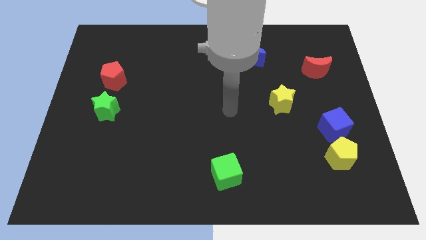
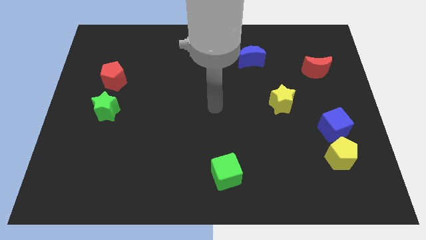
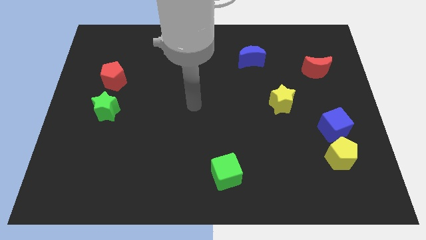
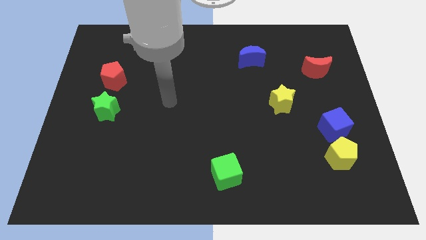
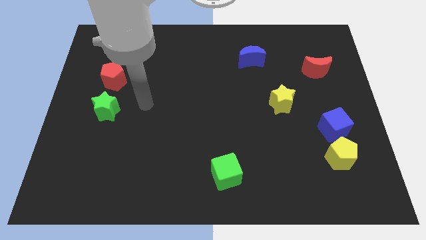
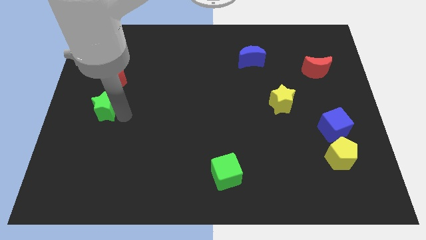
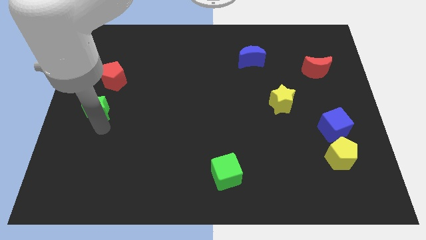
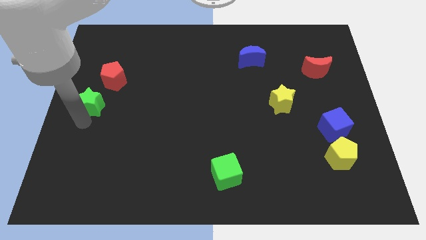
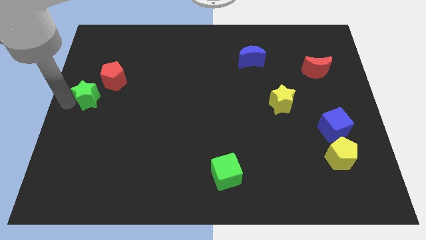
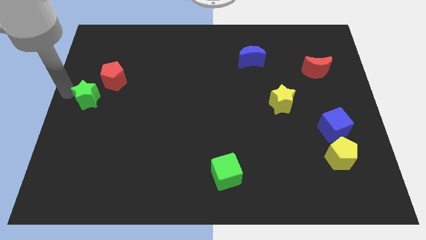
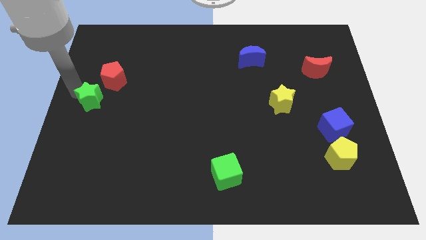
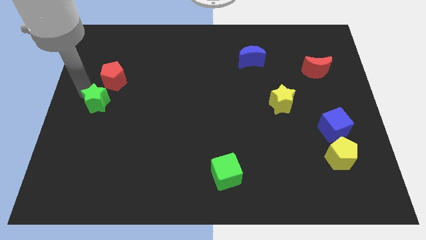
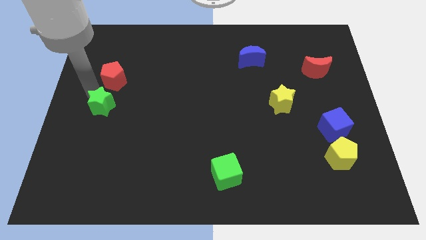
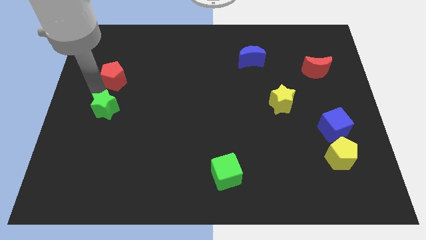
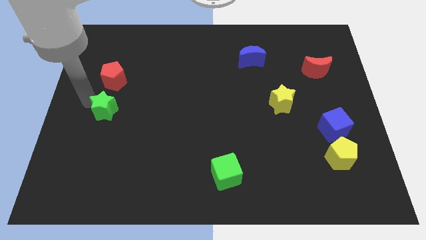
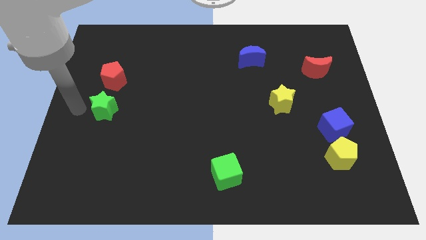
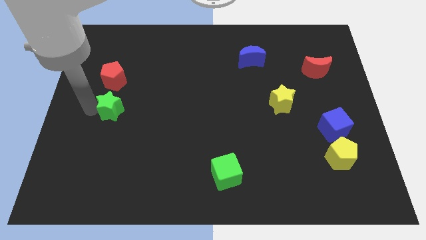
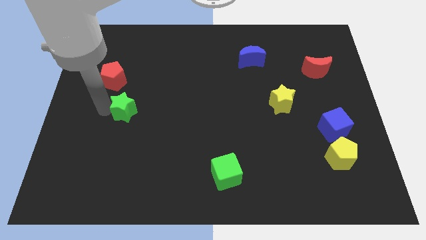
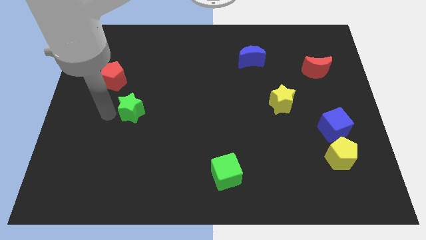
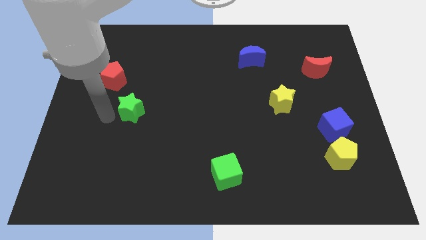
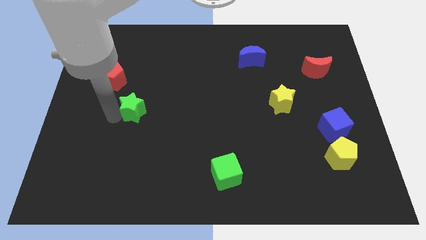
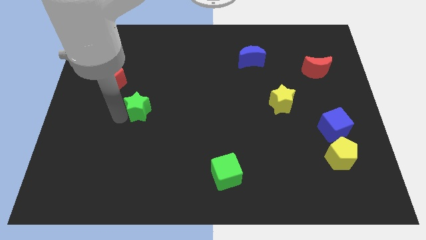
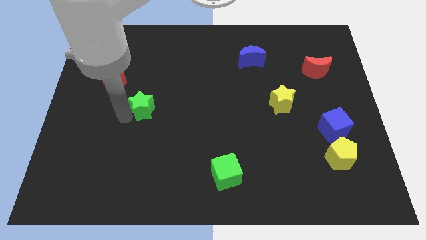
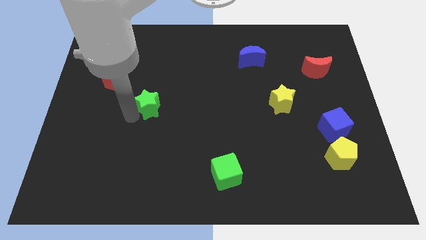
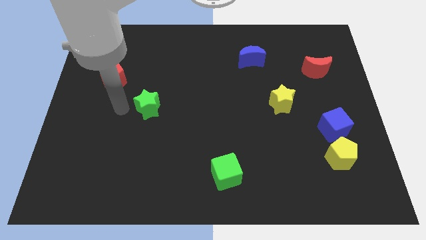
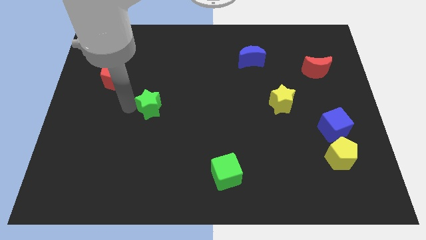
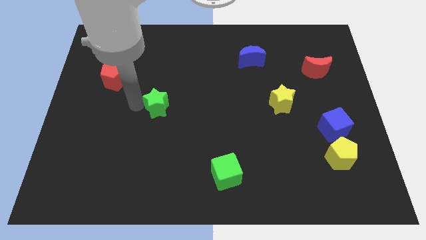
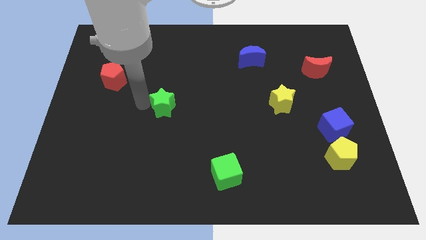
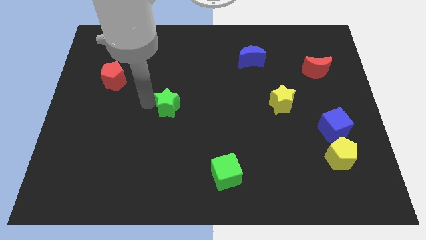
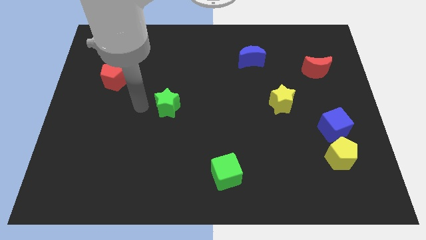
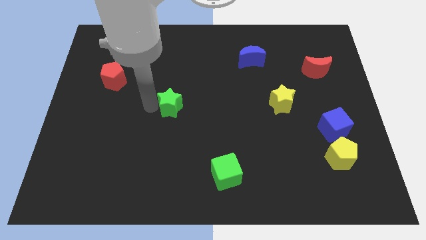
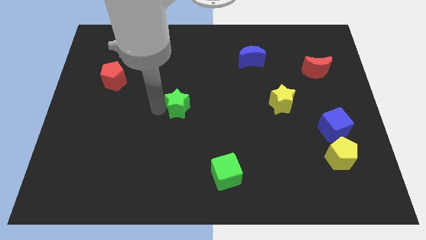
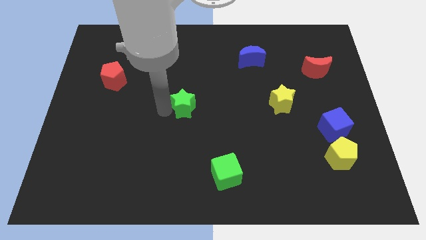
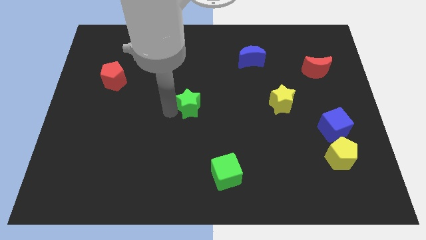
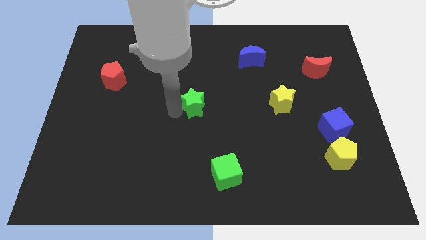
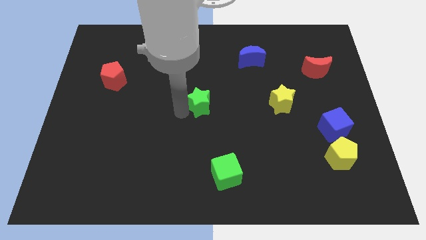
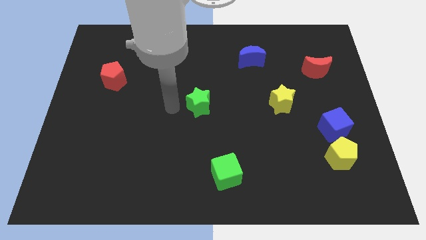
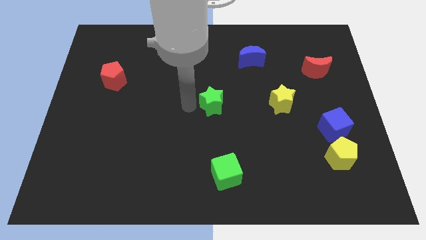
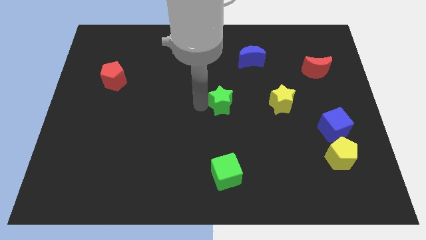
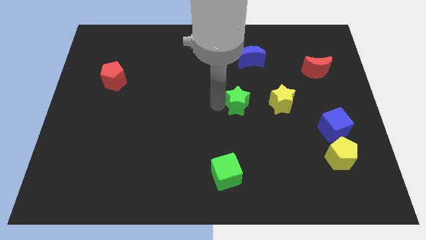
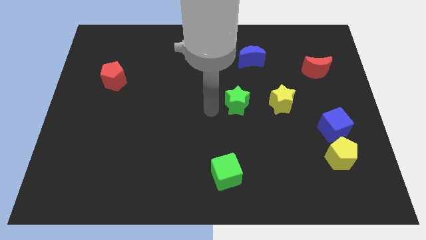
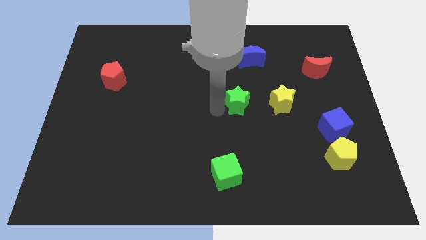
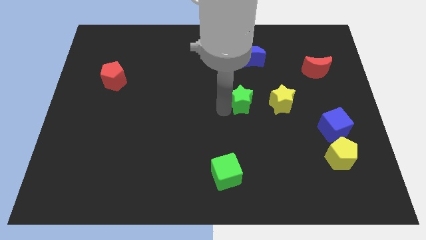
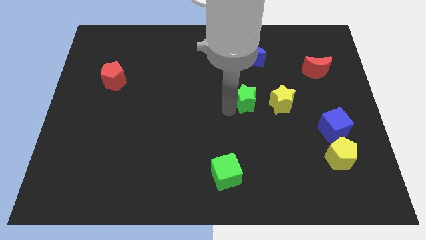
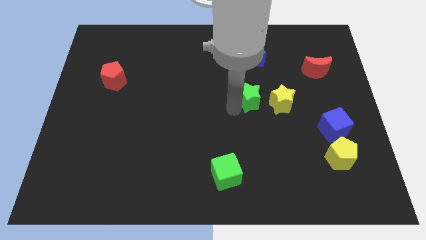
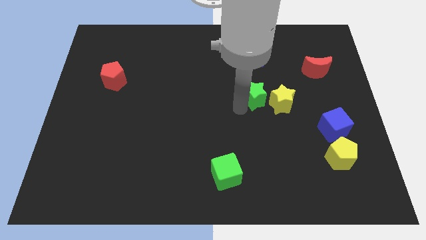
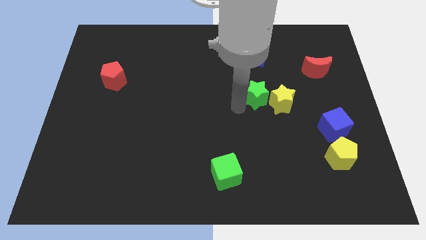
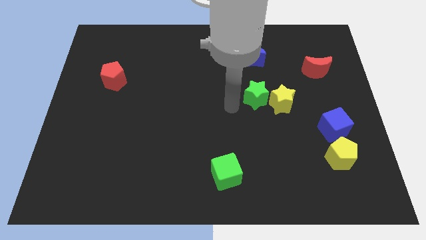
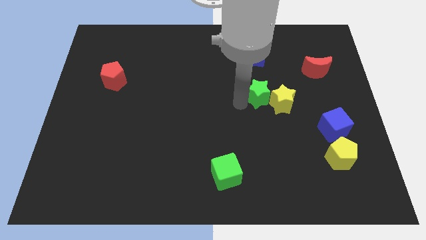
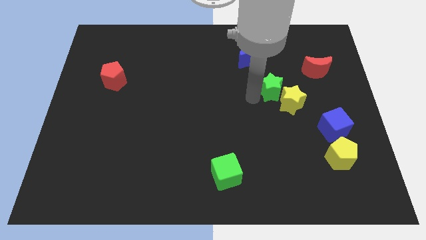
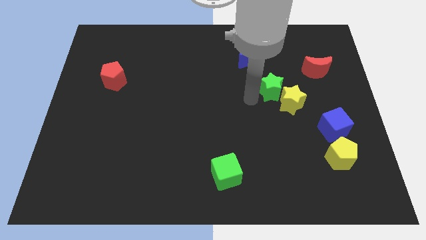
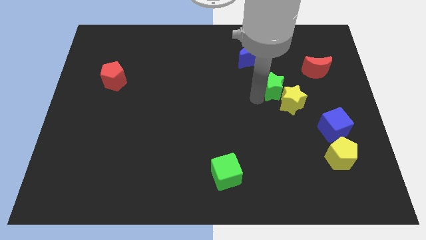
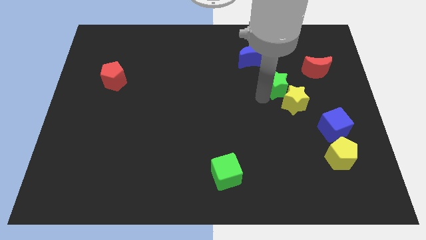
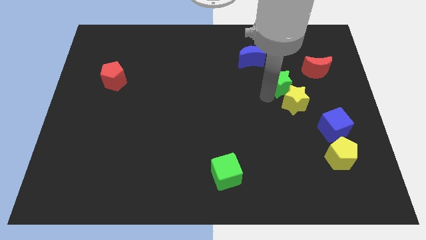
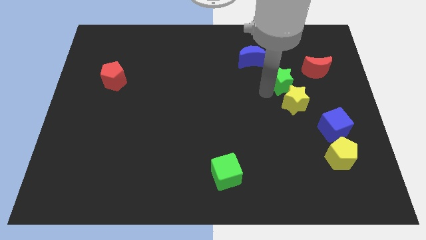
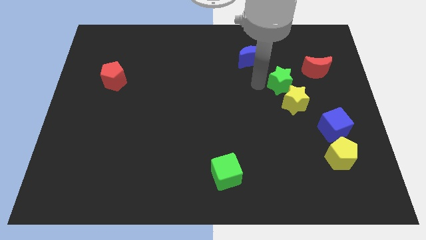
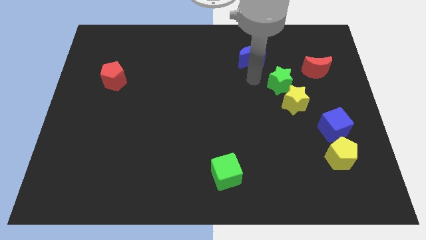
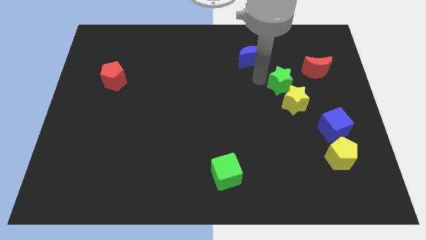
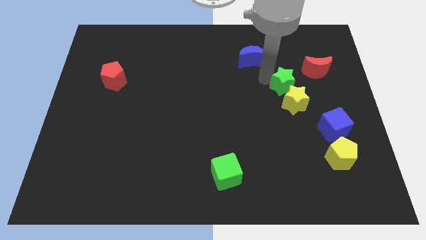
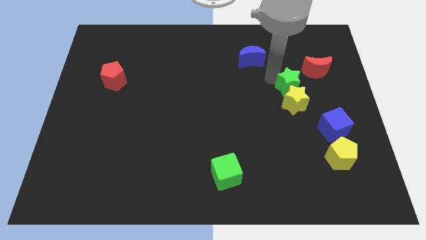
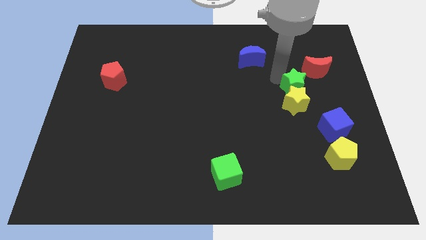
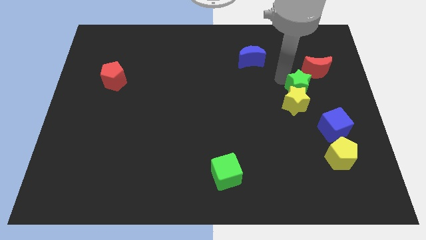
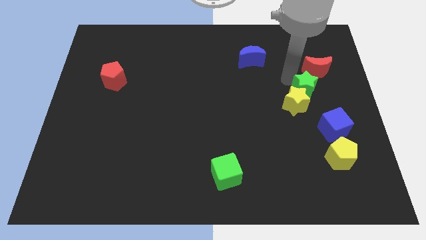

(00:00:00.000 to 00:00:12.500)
slide the green star to the top of the blue cube
